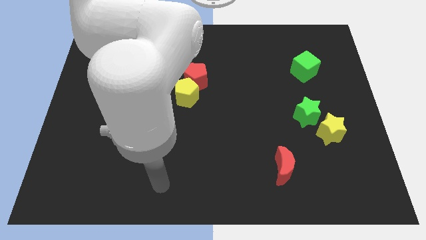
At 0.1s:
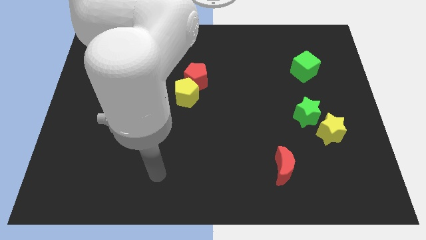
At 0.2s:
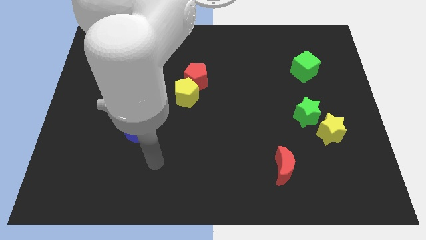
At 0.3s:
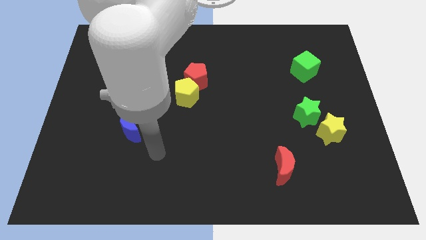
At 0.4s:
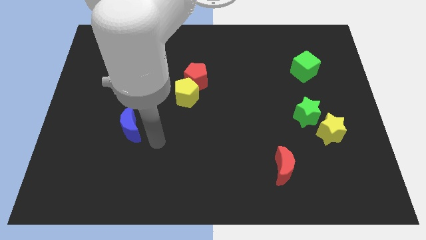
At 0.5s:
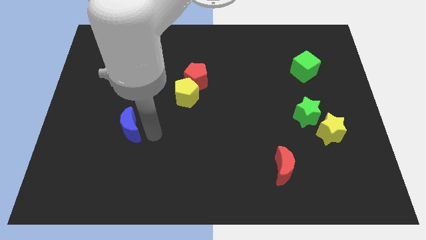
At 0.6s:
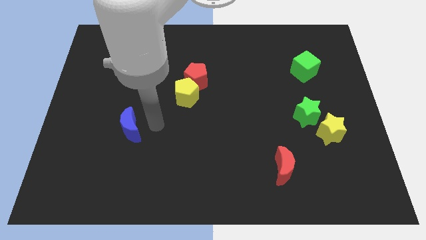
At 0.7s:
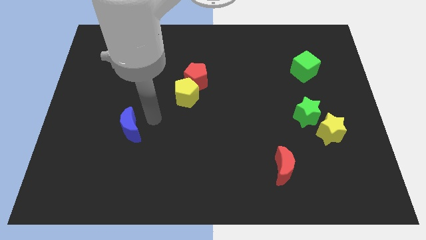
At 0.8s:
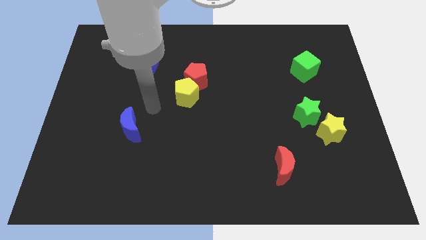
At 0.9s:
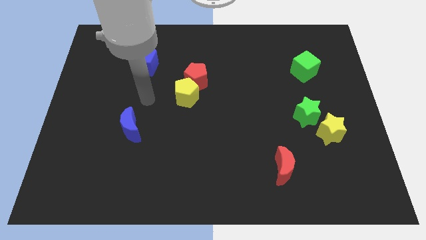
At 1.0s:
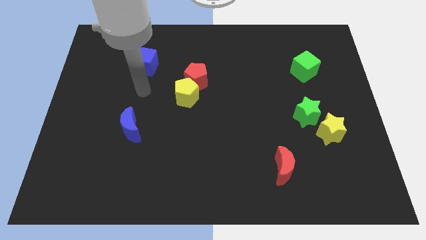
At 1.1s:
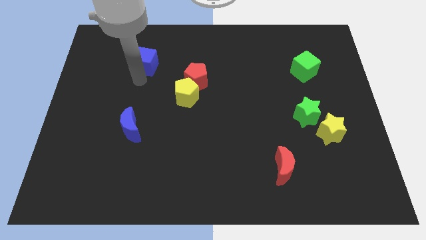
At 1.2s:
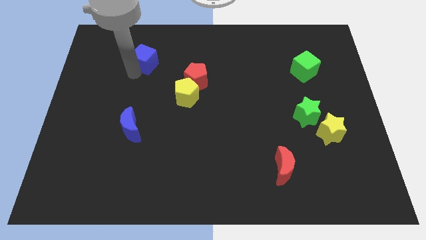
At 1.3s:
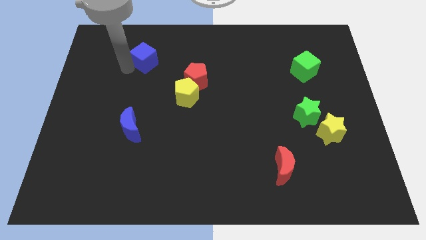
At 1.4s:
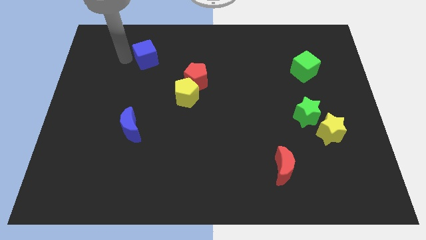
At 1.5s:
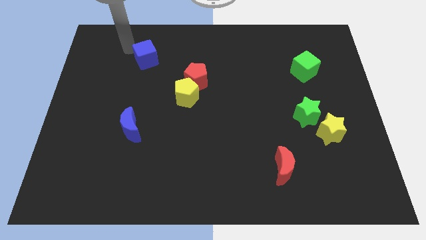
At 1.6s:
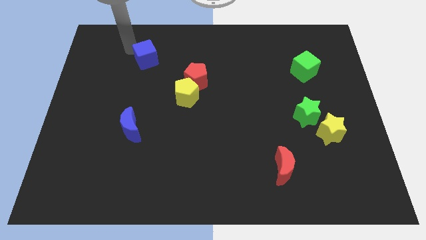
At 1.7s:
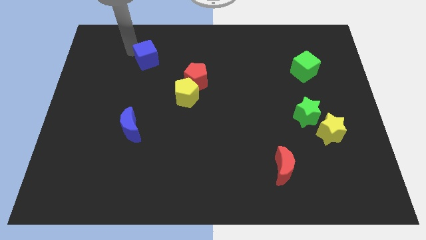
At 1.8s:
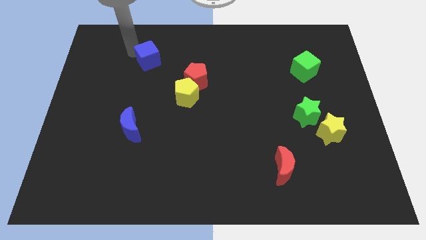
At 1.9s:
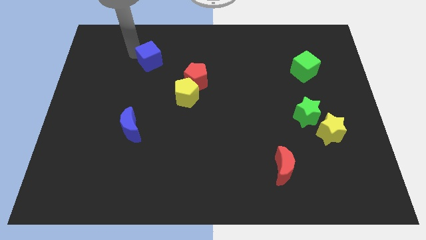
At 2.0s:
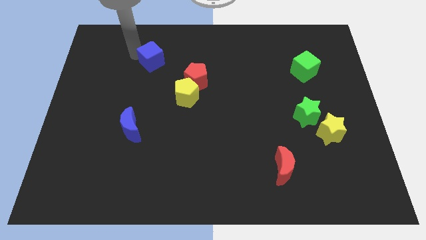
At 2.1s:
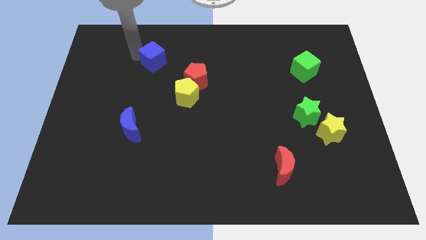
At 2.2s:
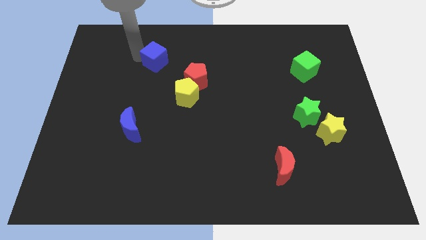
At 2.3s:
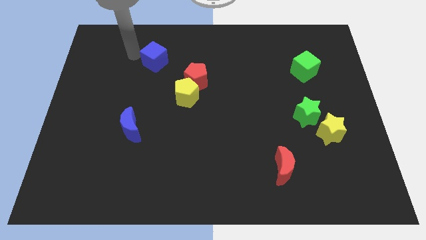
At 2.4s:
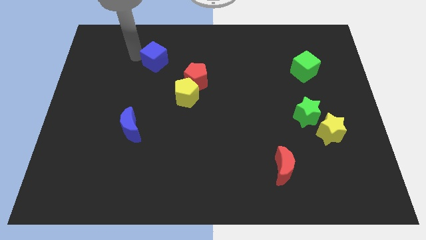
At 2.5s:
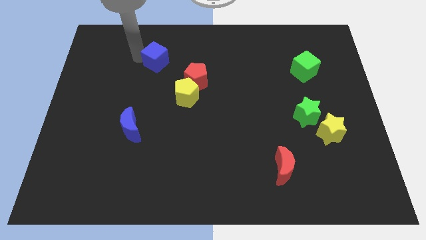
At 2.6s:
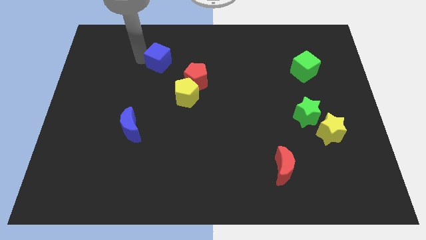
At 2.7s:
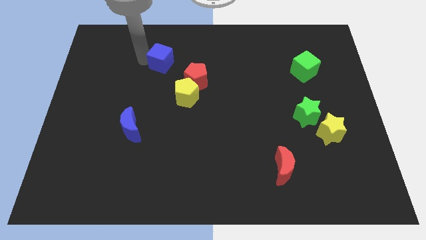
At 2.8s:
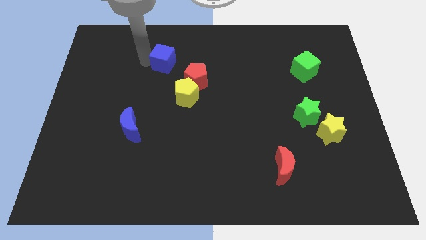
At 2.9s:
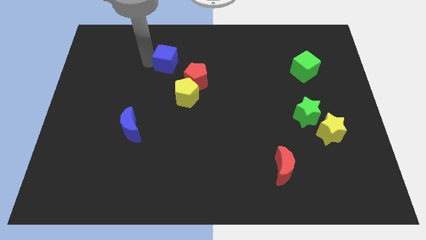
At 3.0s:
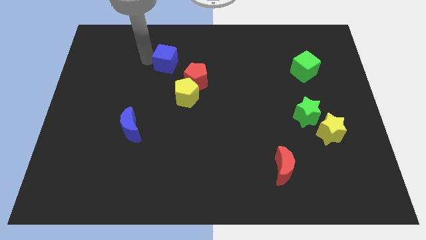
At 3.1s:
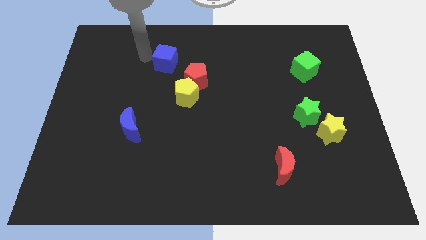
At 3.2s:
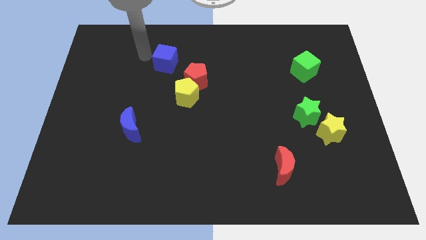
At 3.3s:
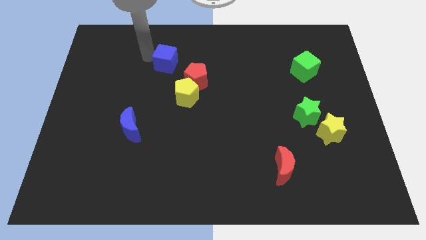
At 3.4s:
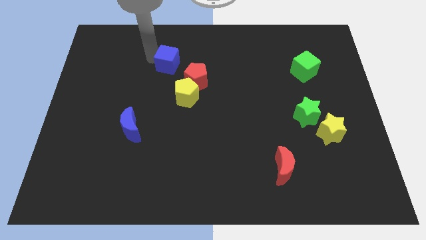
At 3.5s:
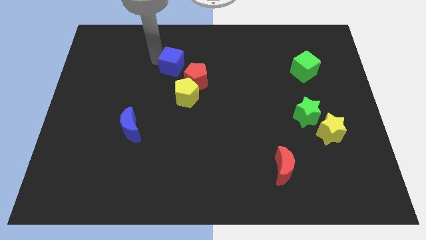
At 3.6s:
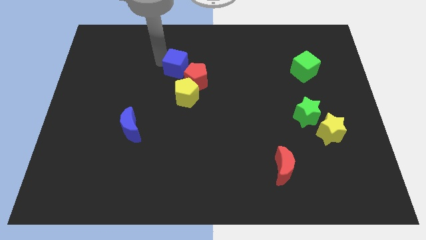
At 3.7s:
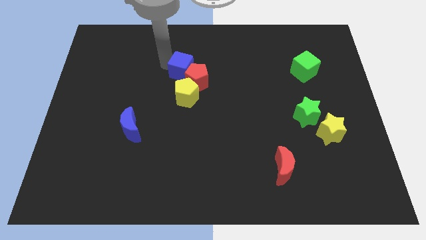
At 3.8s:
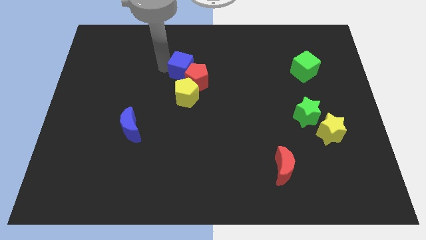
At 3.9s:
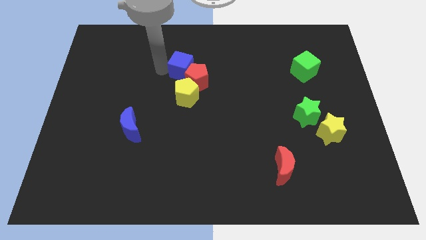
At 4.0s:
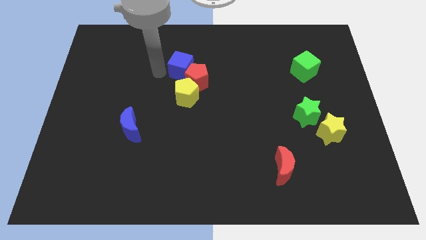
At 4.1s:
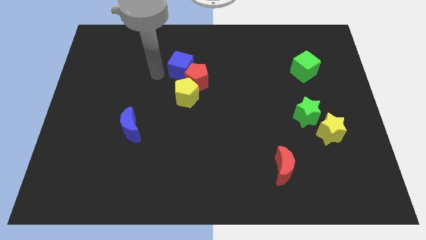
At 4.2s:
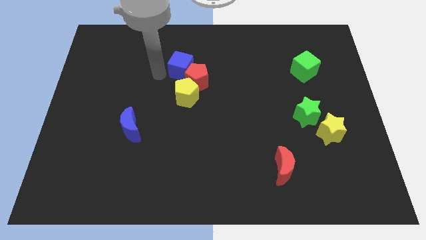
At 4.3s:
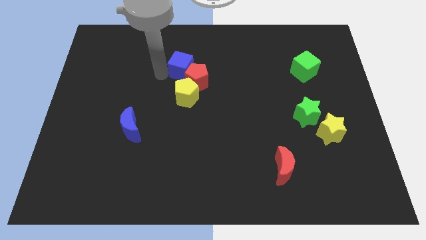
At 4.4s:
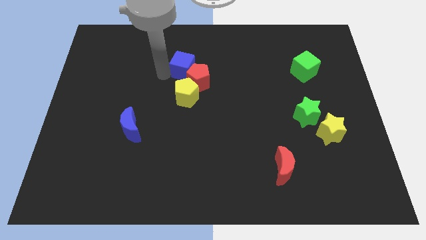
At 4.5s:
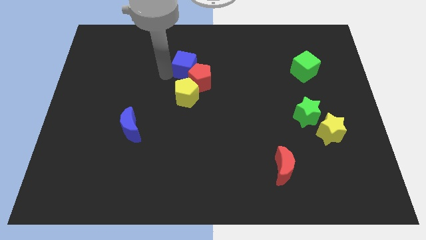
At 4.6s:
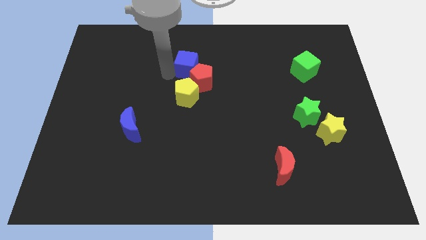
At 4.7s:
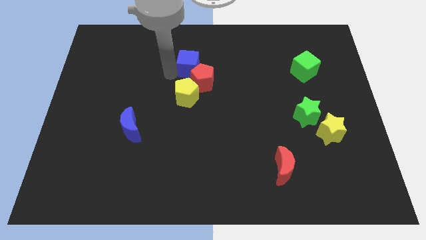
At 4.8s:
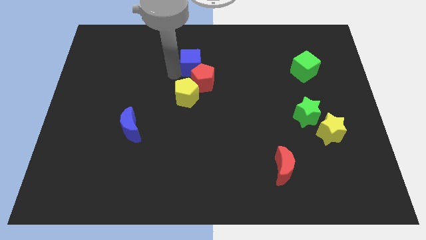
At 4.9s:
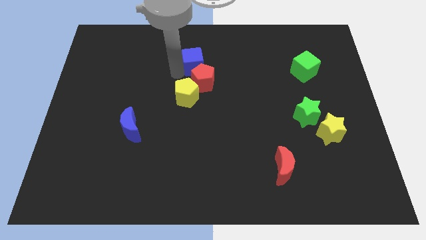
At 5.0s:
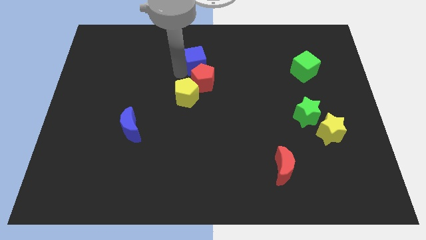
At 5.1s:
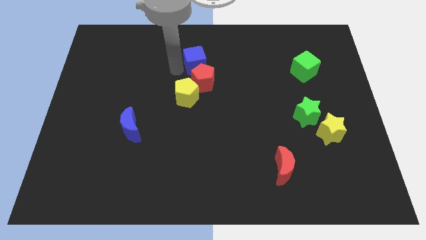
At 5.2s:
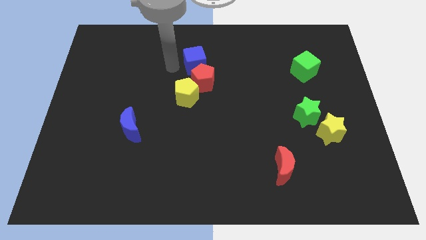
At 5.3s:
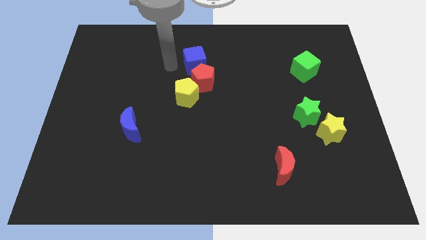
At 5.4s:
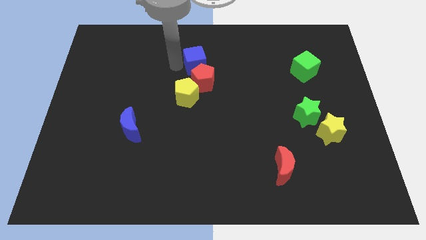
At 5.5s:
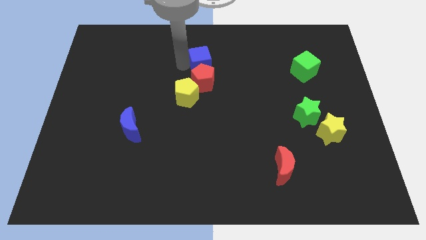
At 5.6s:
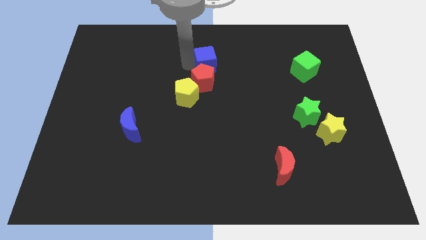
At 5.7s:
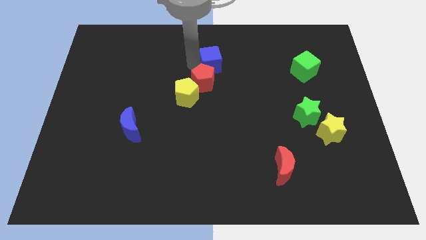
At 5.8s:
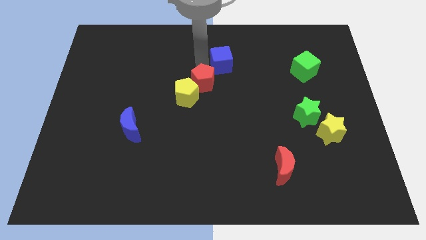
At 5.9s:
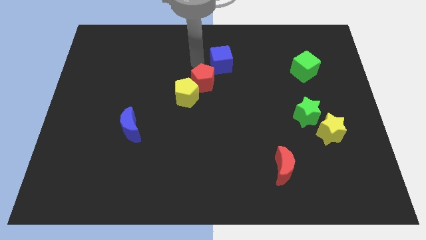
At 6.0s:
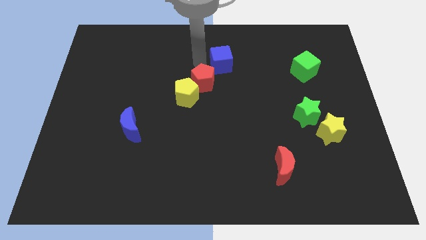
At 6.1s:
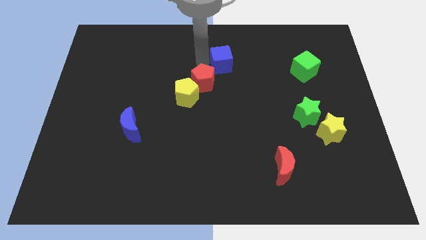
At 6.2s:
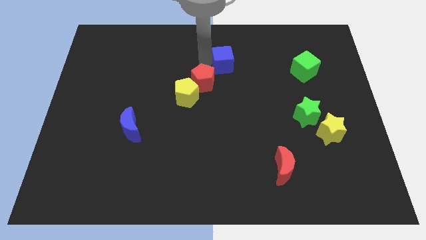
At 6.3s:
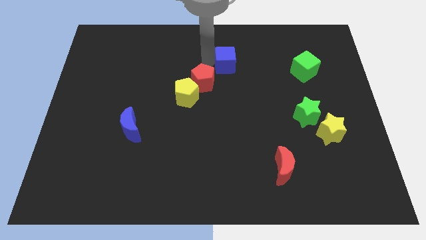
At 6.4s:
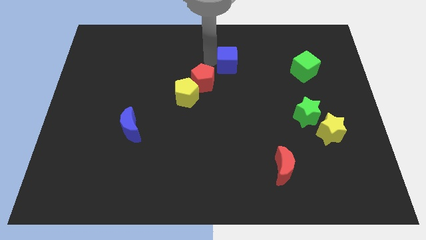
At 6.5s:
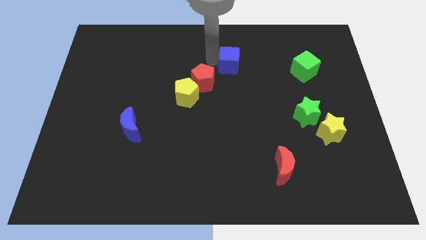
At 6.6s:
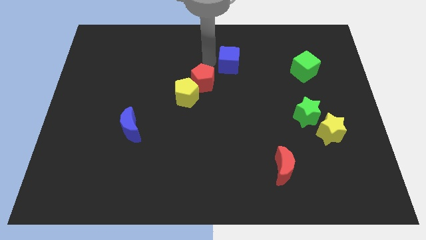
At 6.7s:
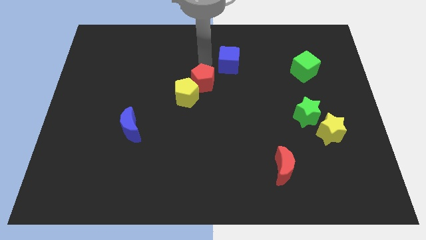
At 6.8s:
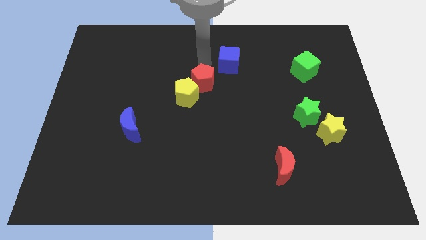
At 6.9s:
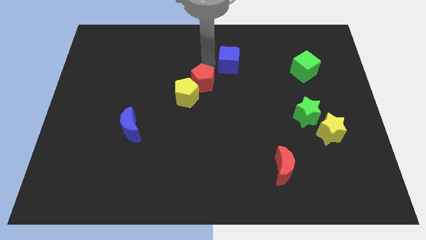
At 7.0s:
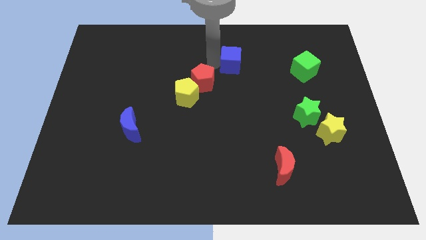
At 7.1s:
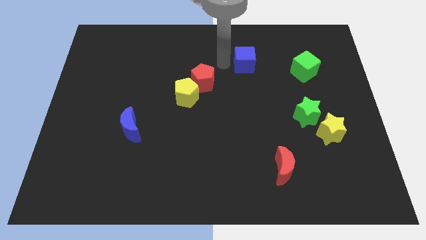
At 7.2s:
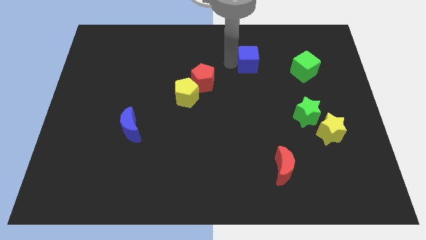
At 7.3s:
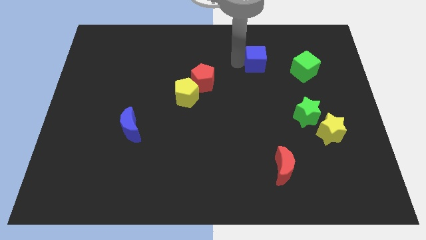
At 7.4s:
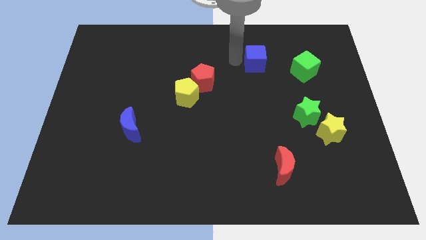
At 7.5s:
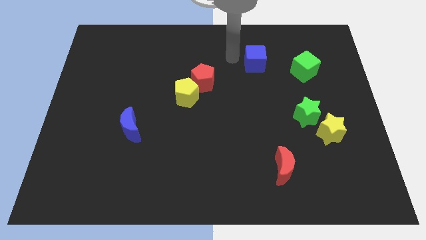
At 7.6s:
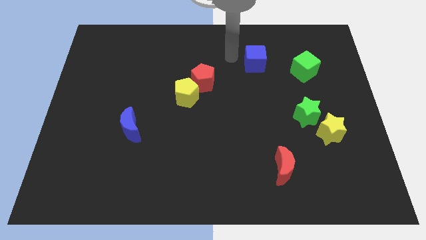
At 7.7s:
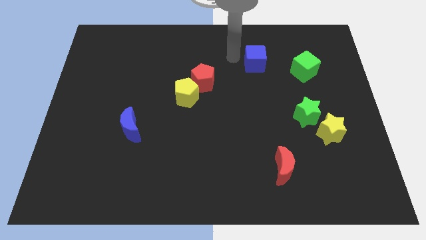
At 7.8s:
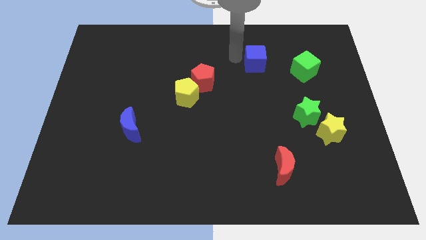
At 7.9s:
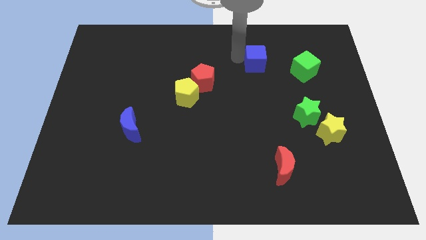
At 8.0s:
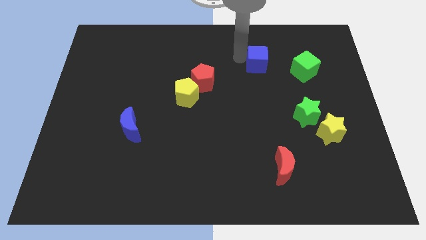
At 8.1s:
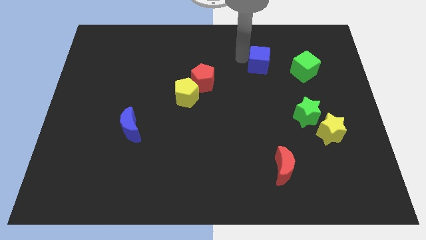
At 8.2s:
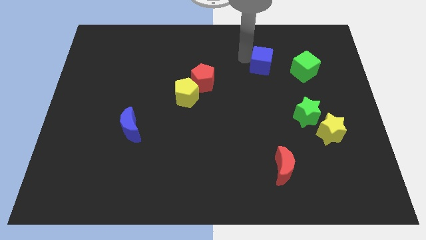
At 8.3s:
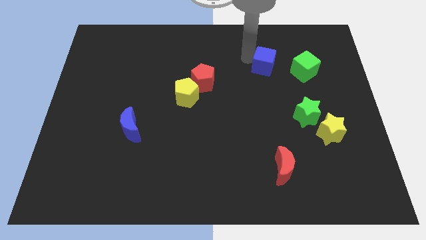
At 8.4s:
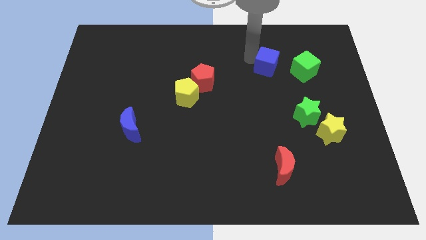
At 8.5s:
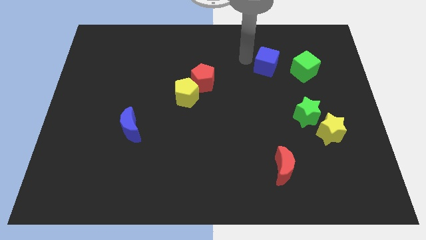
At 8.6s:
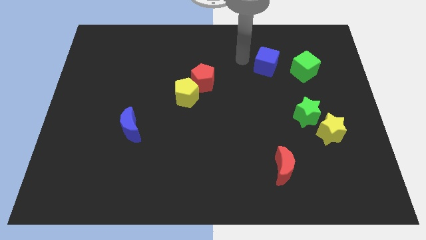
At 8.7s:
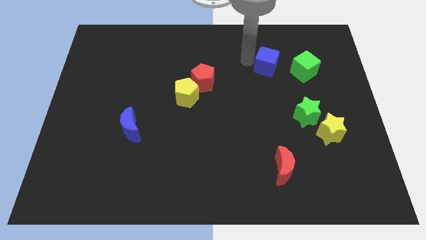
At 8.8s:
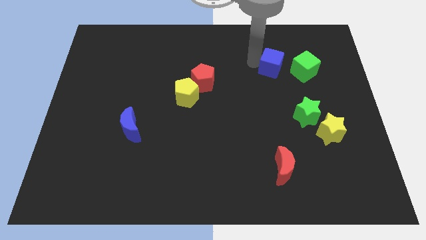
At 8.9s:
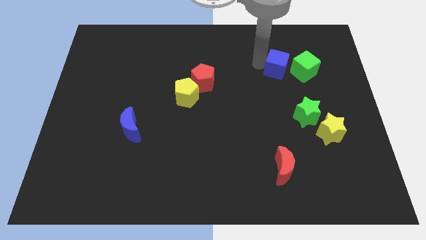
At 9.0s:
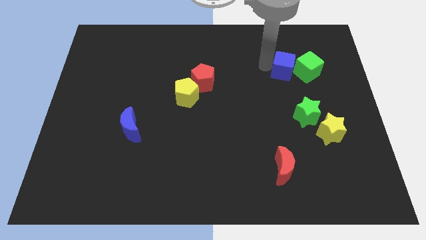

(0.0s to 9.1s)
push the blue cube next to the green cube
